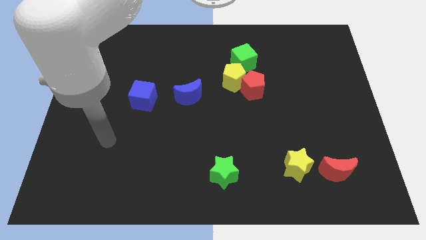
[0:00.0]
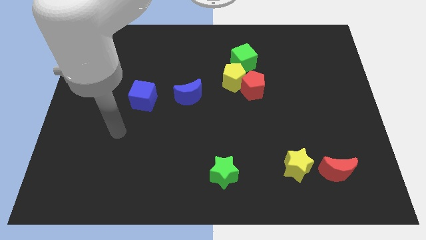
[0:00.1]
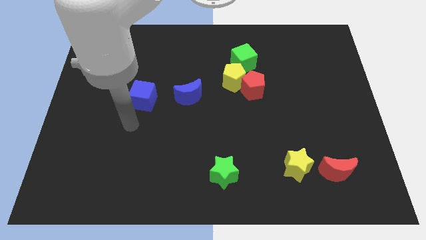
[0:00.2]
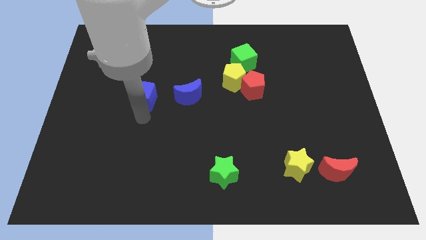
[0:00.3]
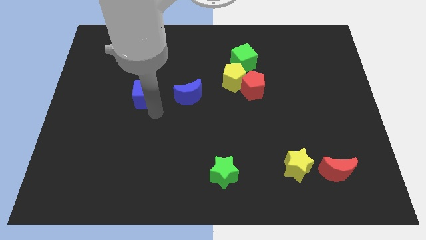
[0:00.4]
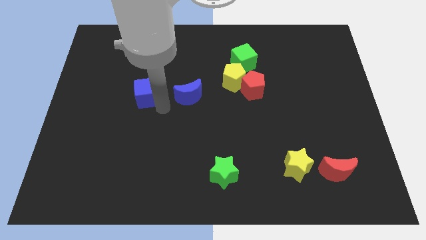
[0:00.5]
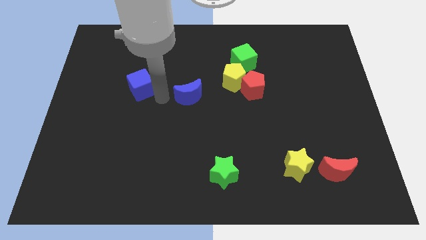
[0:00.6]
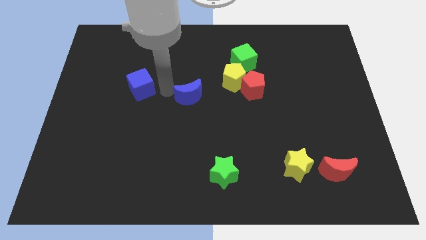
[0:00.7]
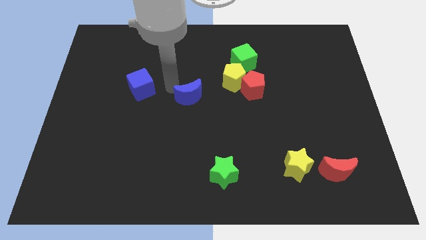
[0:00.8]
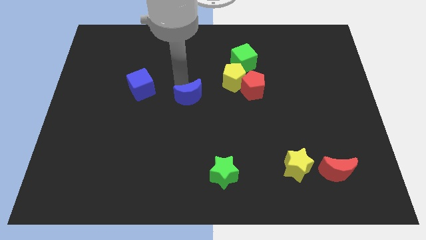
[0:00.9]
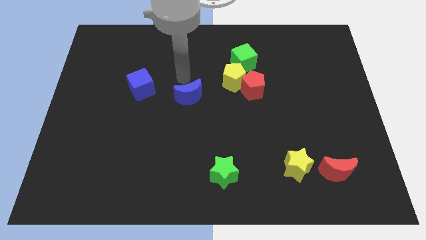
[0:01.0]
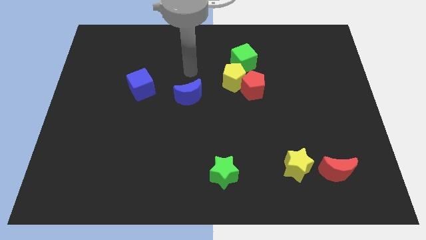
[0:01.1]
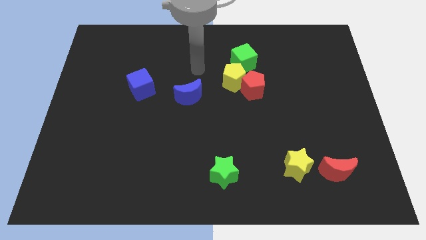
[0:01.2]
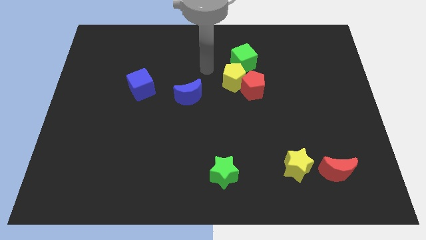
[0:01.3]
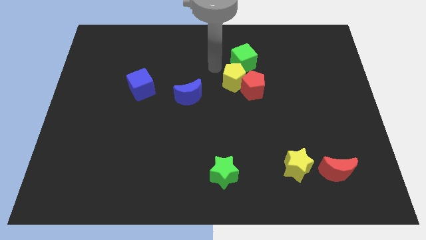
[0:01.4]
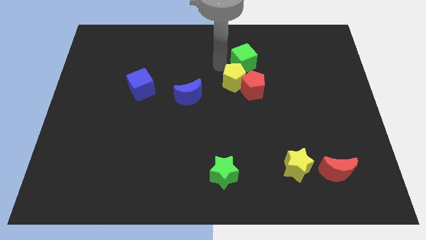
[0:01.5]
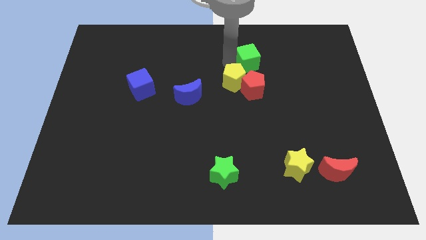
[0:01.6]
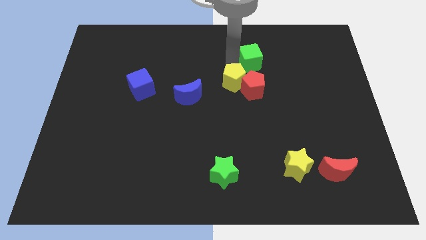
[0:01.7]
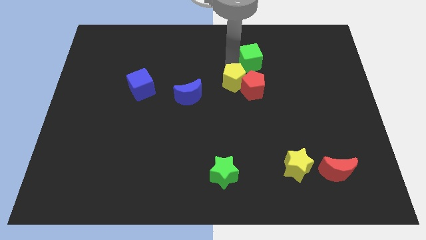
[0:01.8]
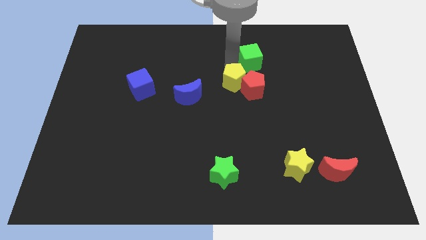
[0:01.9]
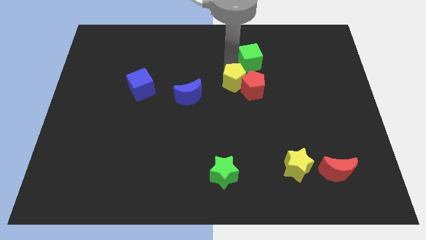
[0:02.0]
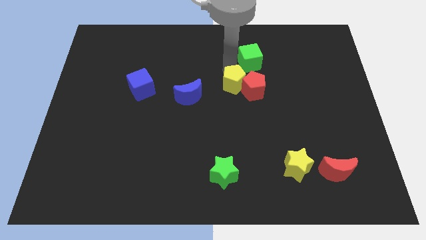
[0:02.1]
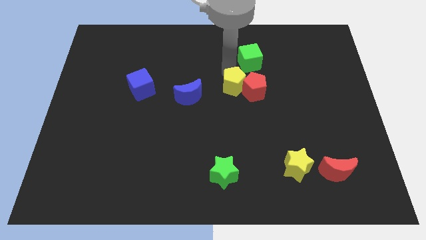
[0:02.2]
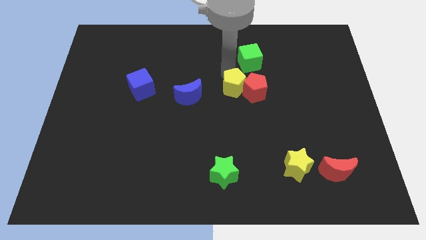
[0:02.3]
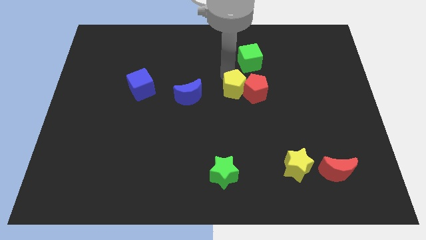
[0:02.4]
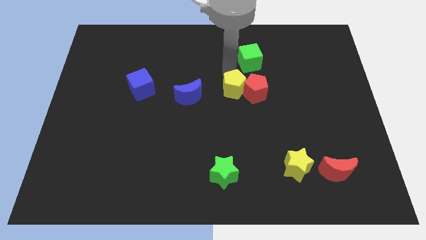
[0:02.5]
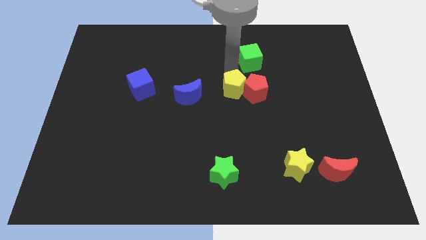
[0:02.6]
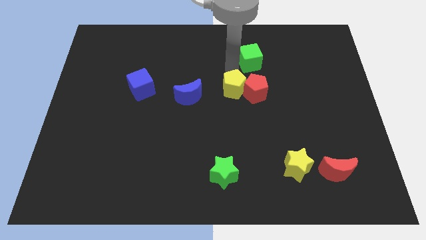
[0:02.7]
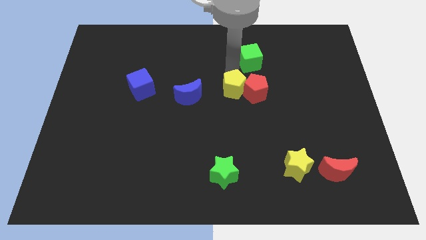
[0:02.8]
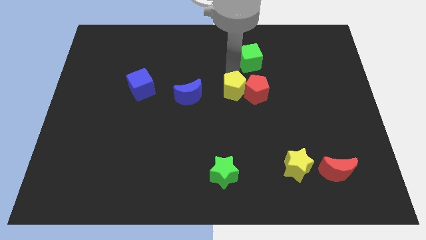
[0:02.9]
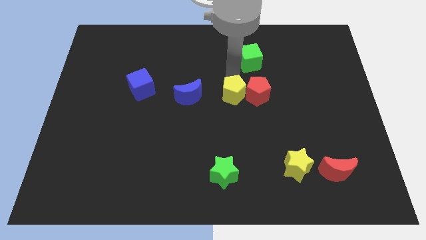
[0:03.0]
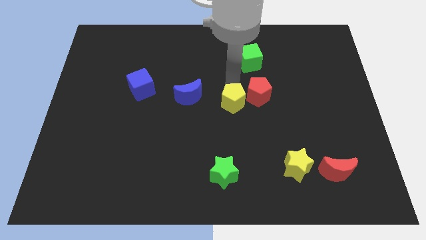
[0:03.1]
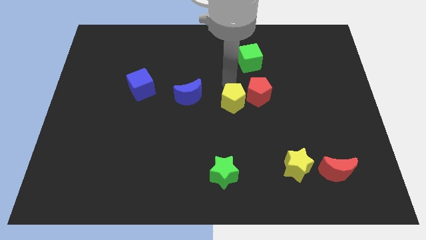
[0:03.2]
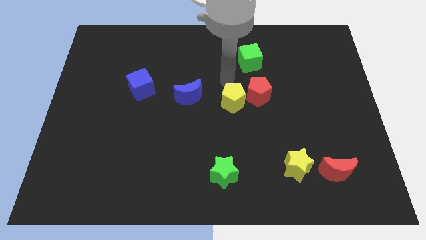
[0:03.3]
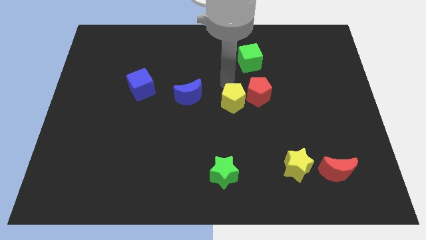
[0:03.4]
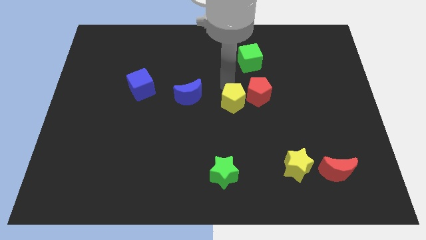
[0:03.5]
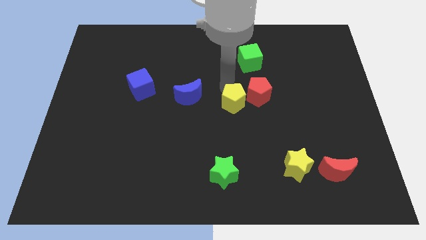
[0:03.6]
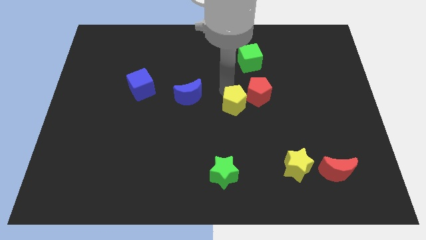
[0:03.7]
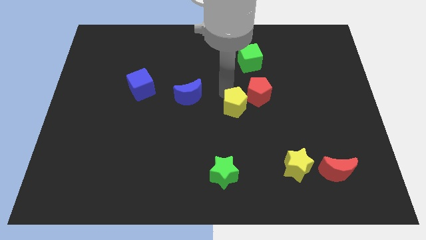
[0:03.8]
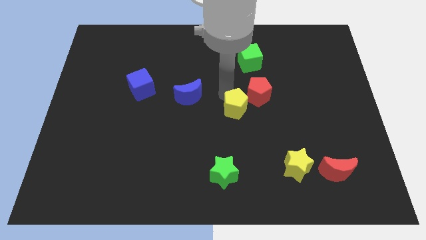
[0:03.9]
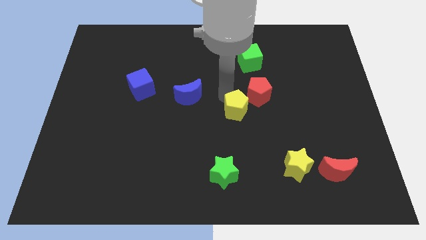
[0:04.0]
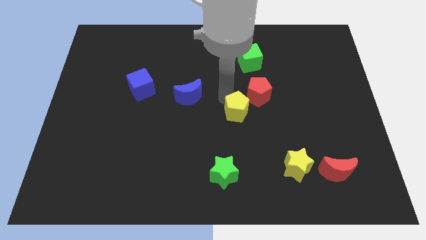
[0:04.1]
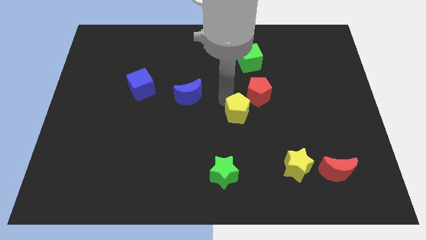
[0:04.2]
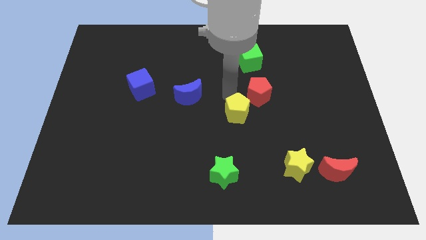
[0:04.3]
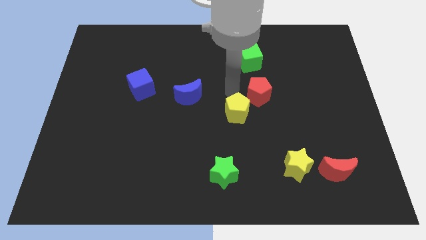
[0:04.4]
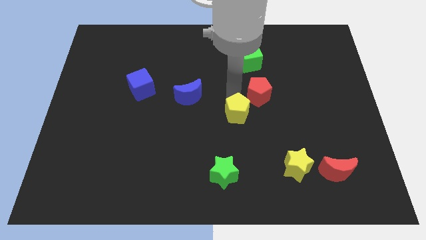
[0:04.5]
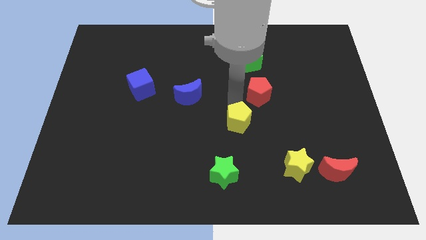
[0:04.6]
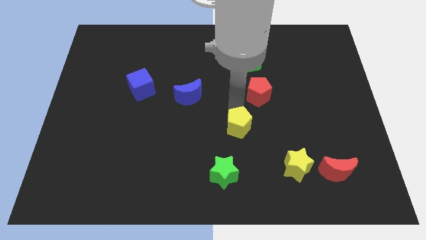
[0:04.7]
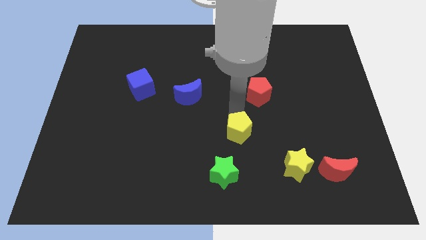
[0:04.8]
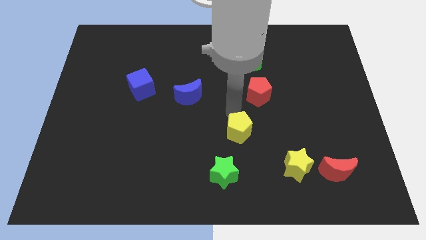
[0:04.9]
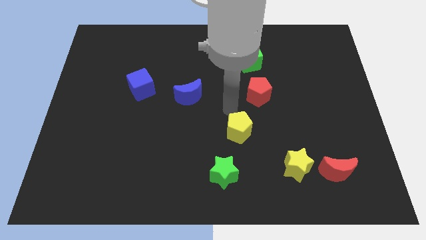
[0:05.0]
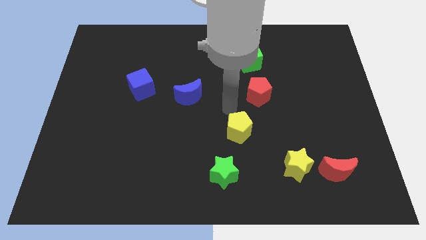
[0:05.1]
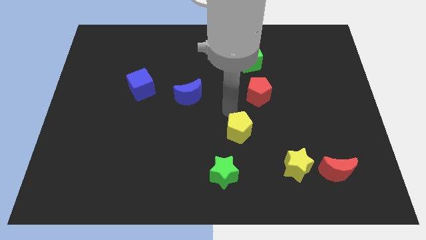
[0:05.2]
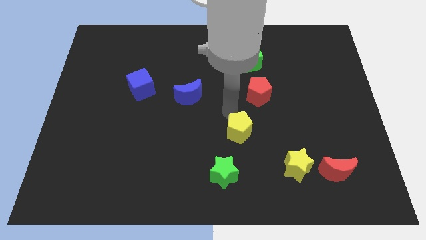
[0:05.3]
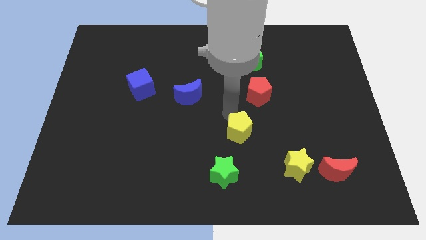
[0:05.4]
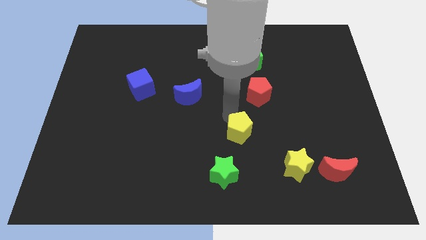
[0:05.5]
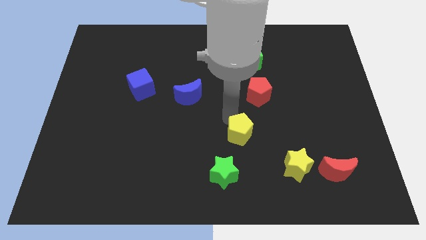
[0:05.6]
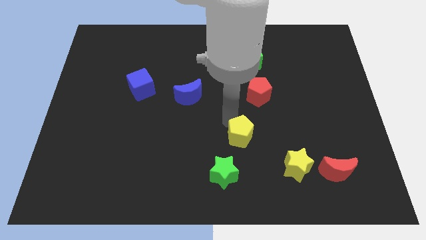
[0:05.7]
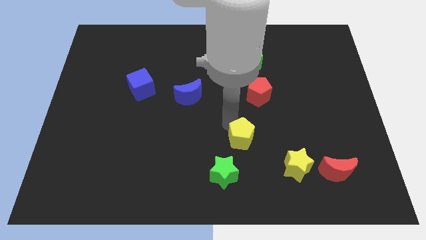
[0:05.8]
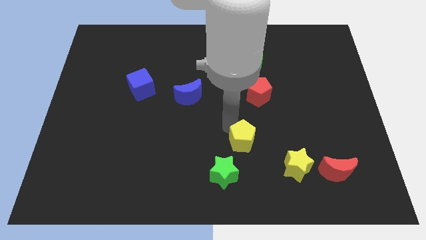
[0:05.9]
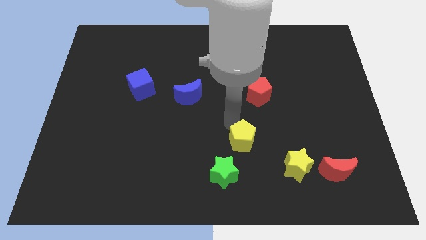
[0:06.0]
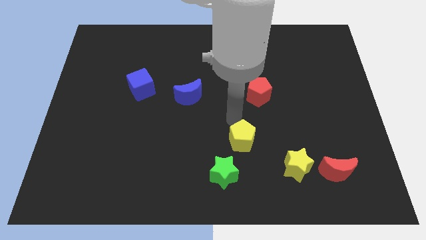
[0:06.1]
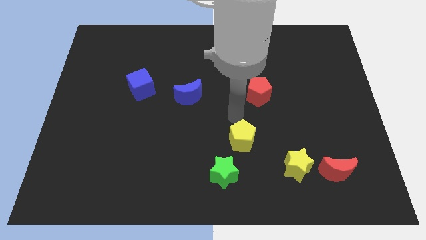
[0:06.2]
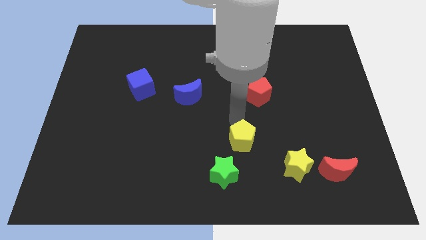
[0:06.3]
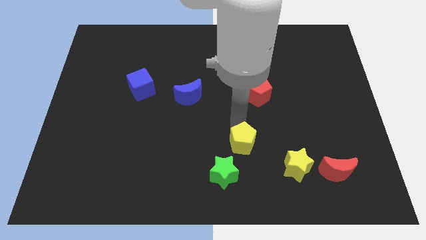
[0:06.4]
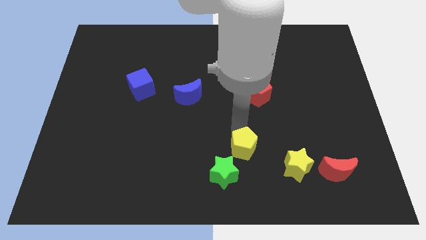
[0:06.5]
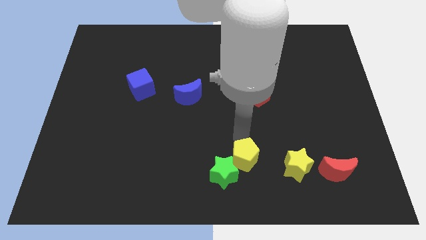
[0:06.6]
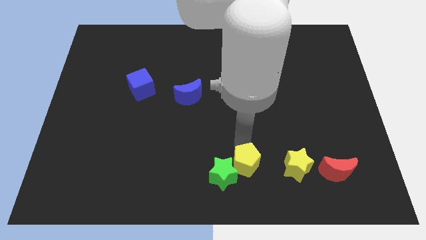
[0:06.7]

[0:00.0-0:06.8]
push the yellow pentagon to the bottom
